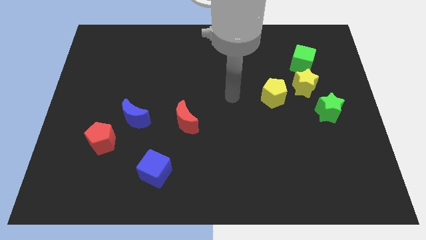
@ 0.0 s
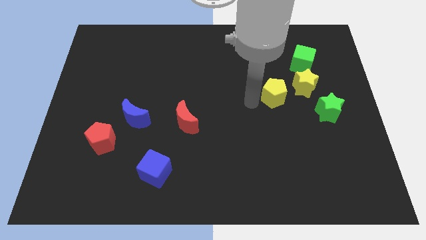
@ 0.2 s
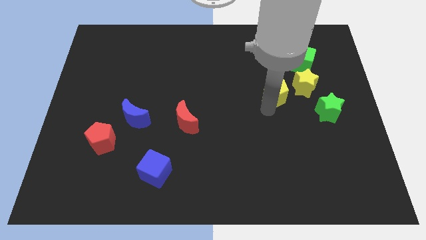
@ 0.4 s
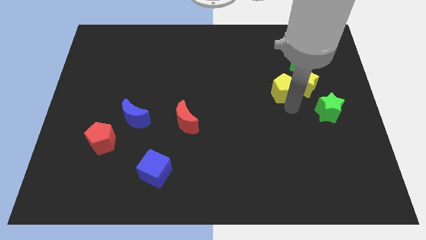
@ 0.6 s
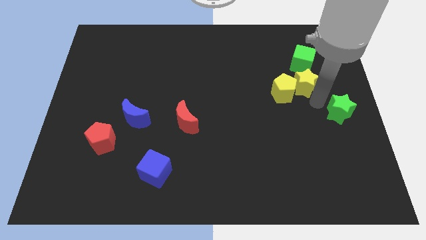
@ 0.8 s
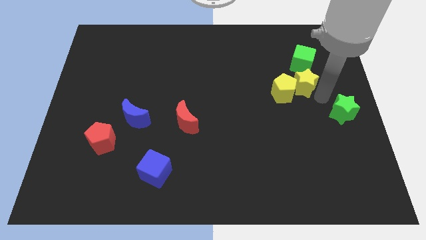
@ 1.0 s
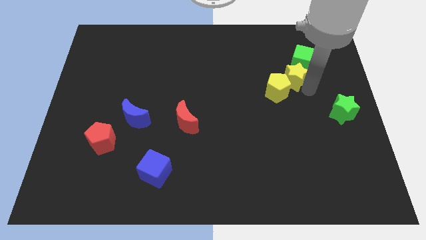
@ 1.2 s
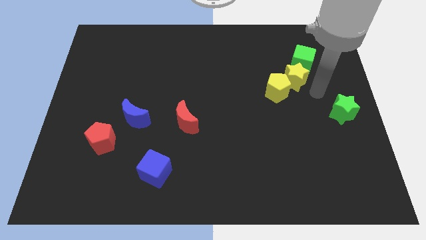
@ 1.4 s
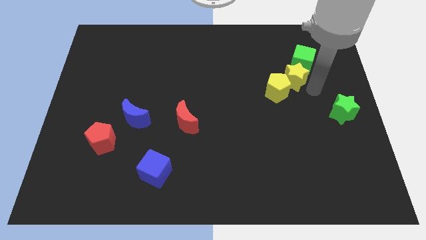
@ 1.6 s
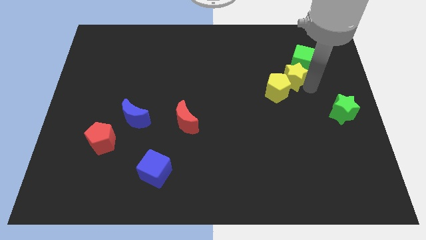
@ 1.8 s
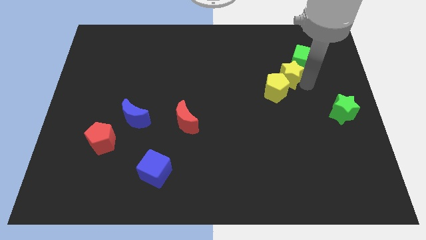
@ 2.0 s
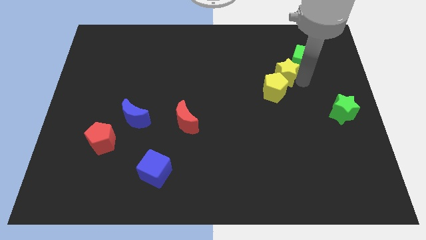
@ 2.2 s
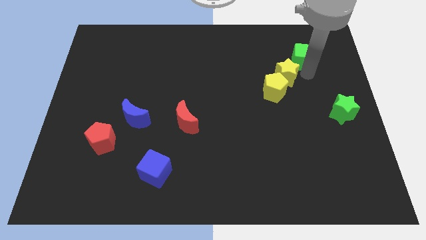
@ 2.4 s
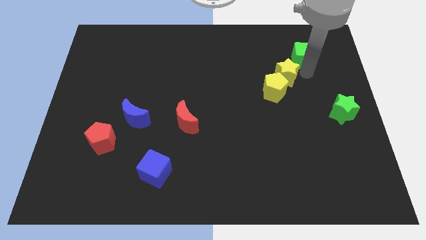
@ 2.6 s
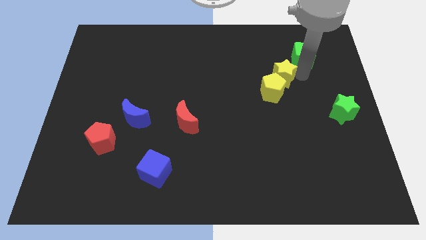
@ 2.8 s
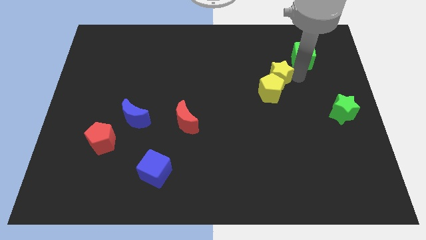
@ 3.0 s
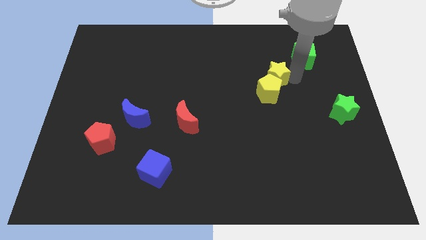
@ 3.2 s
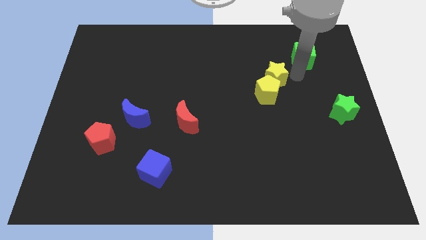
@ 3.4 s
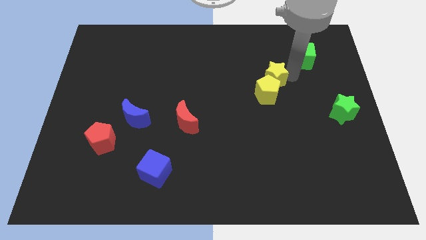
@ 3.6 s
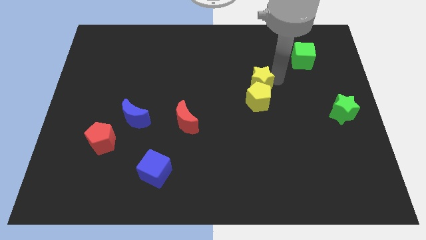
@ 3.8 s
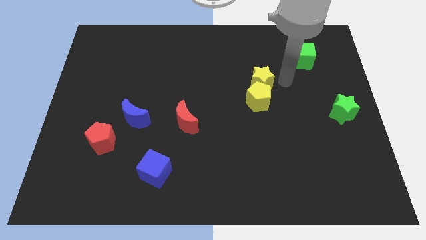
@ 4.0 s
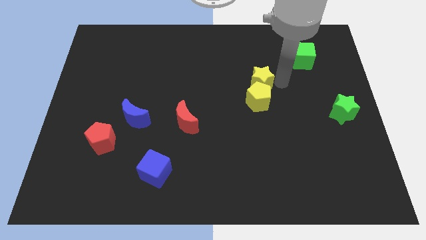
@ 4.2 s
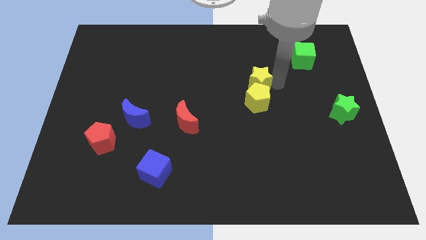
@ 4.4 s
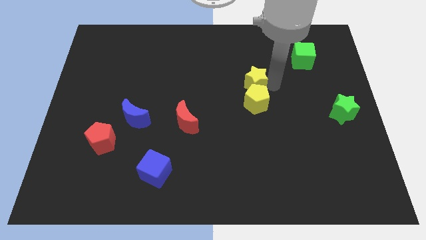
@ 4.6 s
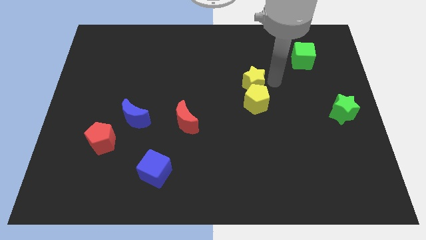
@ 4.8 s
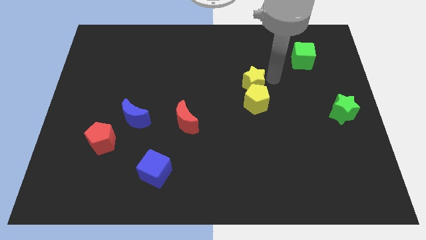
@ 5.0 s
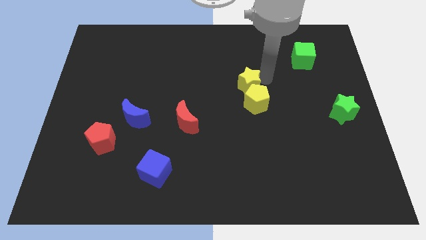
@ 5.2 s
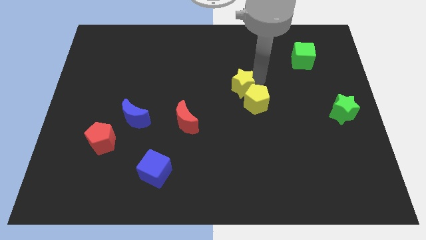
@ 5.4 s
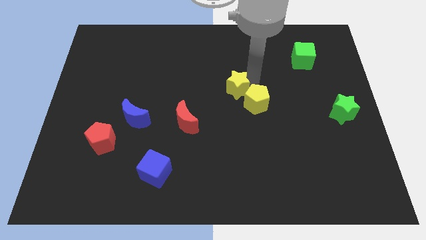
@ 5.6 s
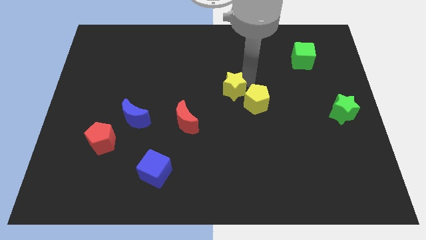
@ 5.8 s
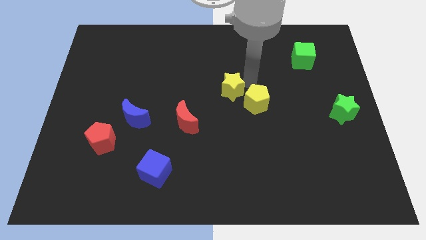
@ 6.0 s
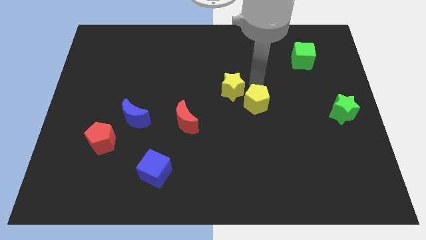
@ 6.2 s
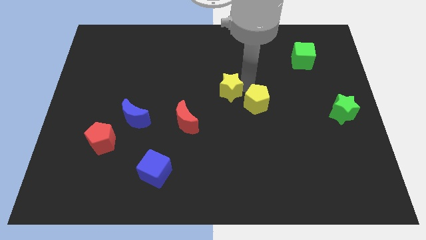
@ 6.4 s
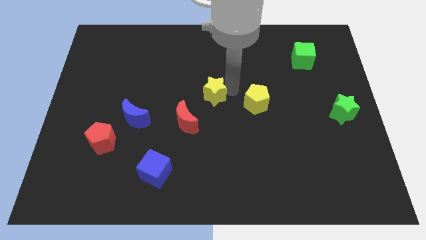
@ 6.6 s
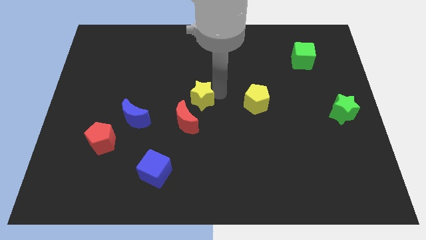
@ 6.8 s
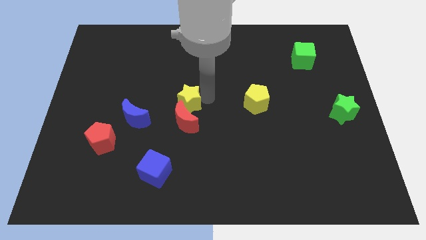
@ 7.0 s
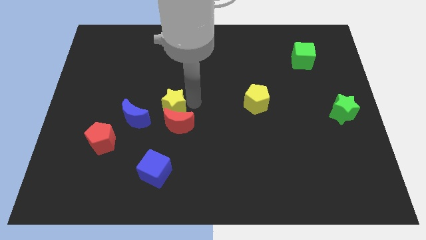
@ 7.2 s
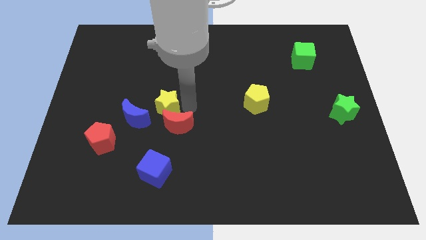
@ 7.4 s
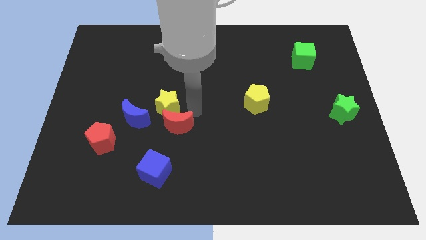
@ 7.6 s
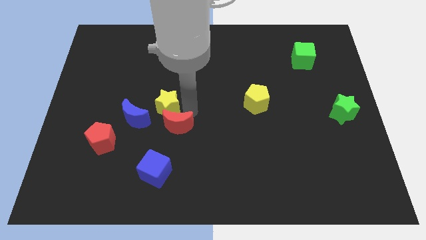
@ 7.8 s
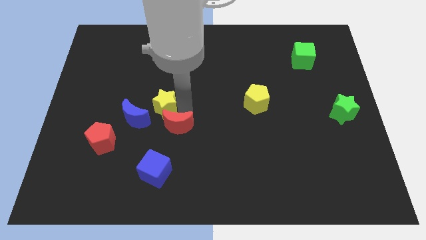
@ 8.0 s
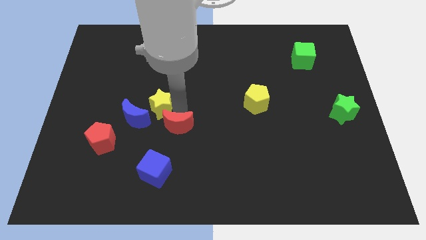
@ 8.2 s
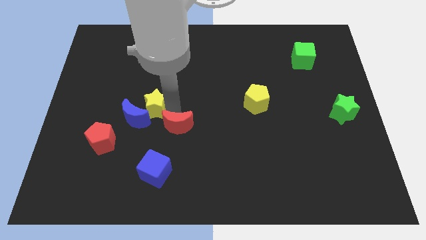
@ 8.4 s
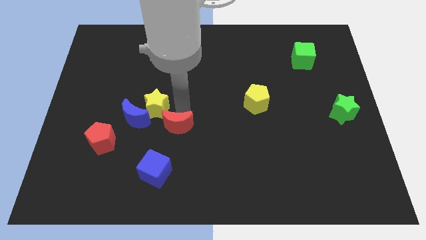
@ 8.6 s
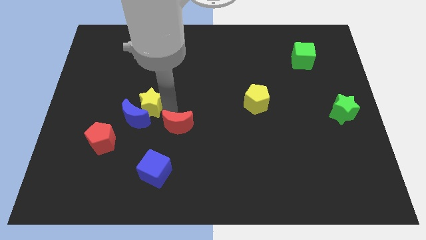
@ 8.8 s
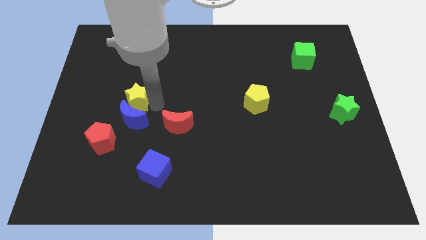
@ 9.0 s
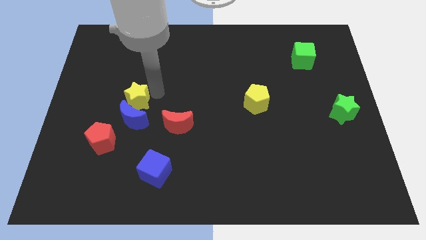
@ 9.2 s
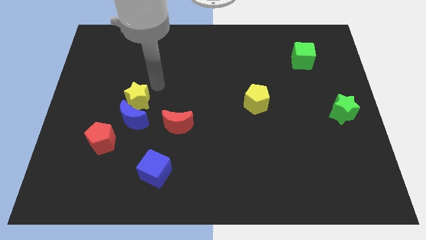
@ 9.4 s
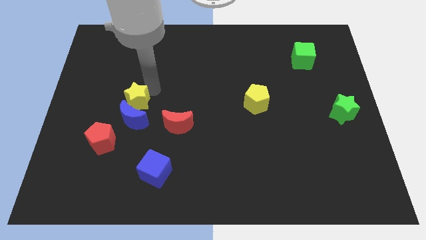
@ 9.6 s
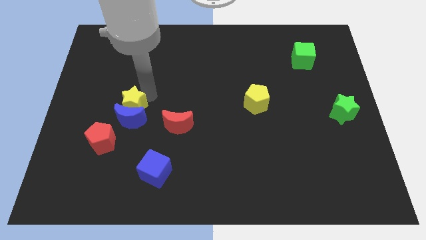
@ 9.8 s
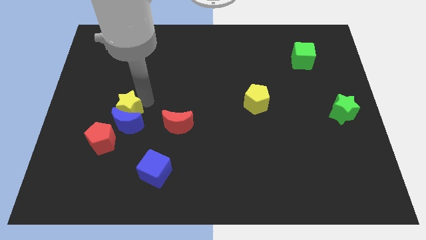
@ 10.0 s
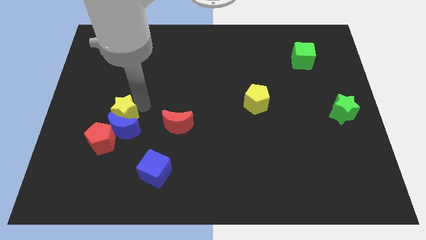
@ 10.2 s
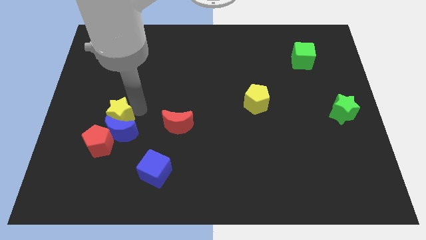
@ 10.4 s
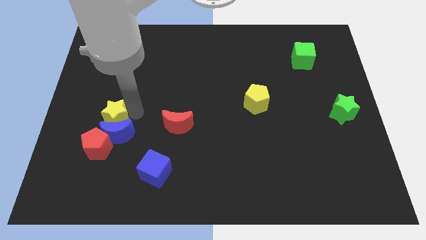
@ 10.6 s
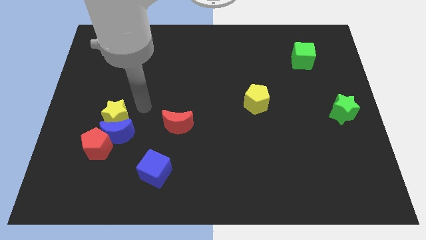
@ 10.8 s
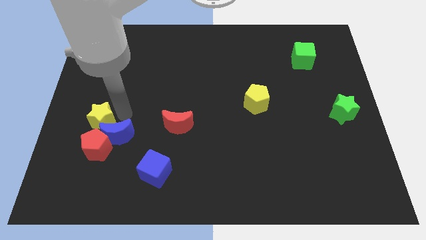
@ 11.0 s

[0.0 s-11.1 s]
put the yellow star left of the blue moon
